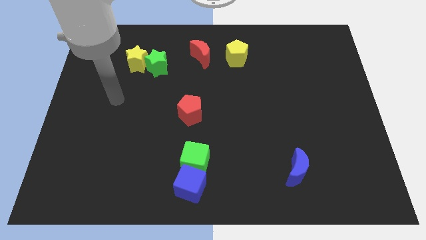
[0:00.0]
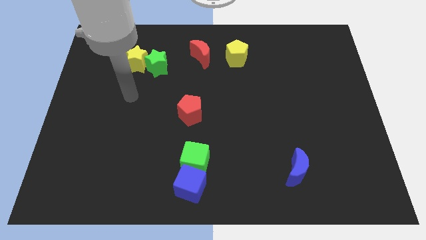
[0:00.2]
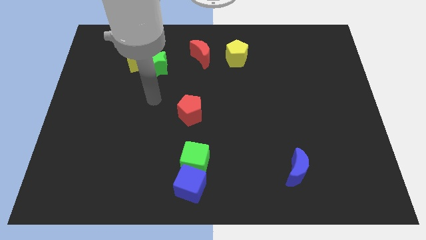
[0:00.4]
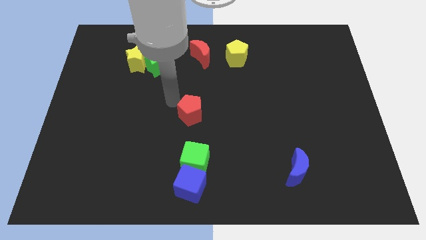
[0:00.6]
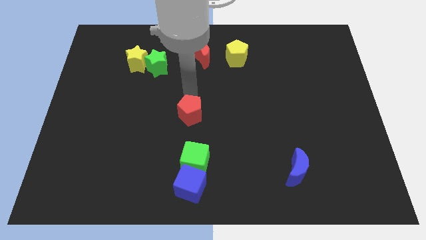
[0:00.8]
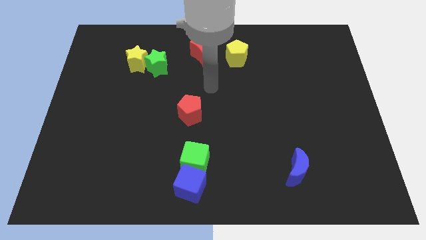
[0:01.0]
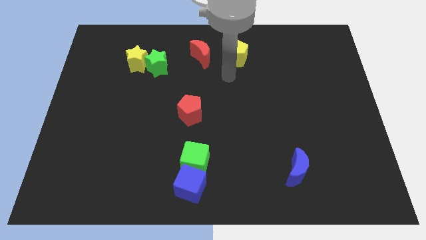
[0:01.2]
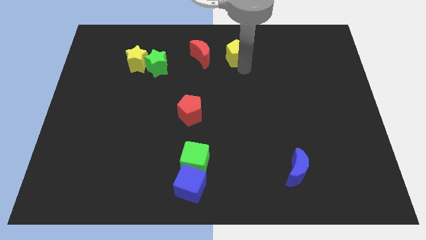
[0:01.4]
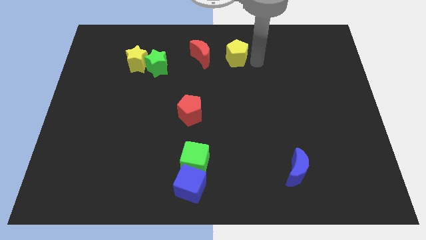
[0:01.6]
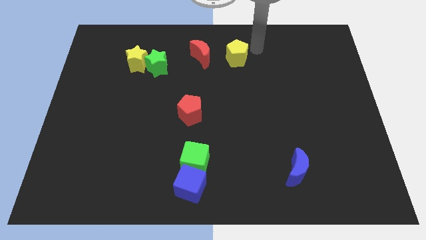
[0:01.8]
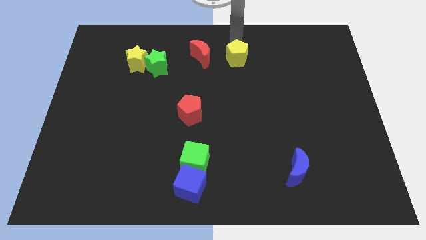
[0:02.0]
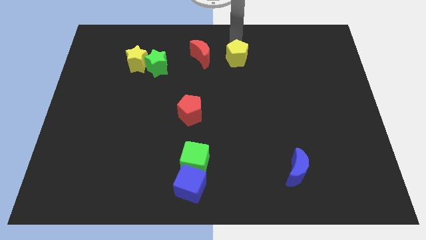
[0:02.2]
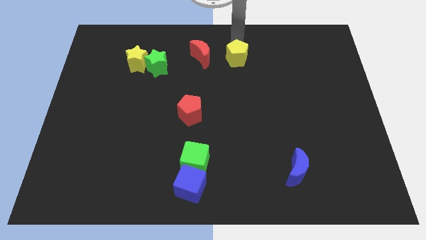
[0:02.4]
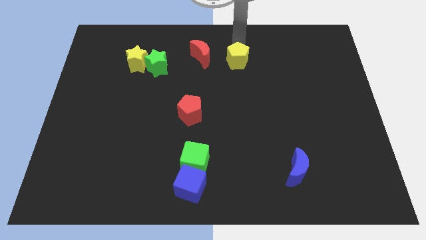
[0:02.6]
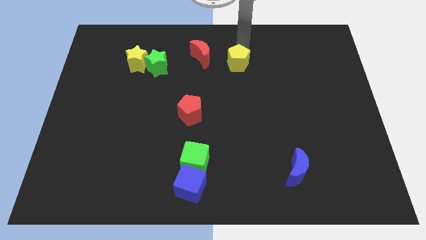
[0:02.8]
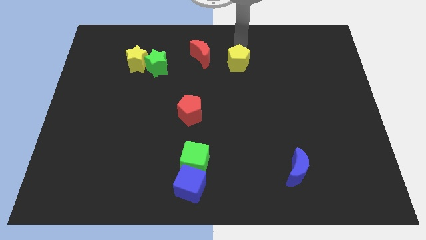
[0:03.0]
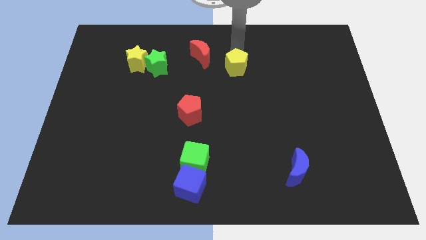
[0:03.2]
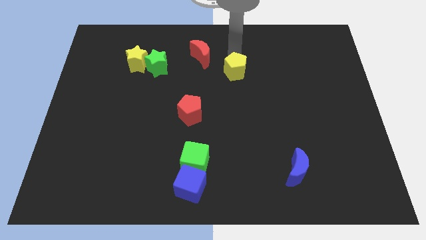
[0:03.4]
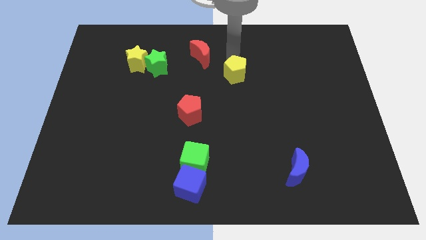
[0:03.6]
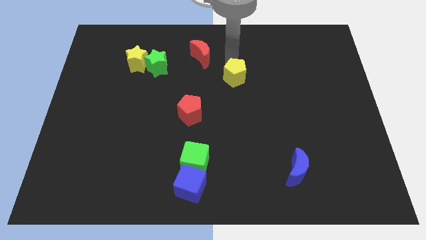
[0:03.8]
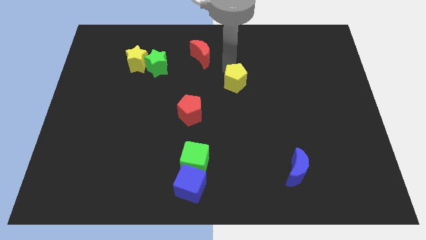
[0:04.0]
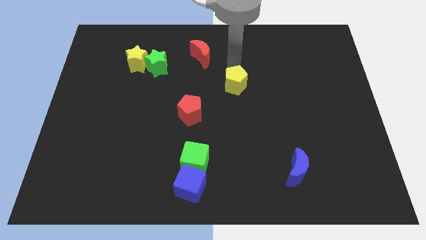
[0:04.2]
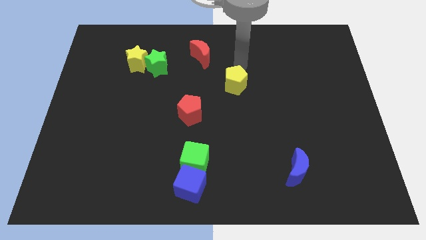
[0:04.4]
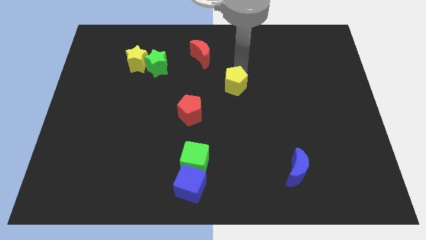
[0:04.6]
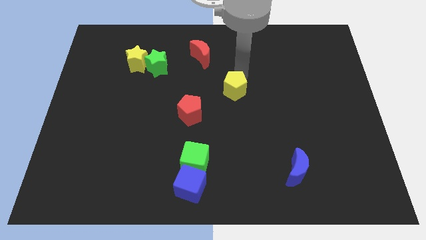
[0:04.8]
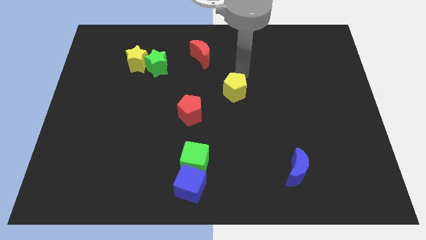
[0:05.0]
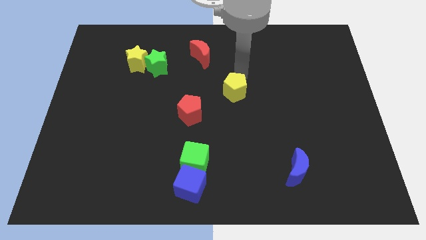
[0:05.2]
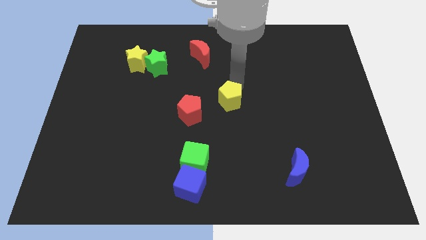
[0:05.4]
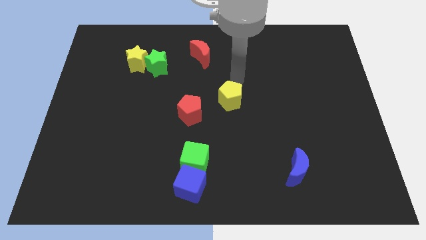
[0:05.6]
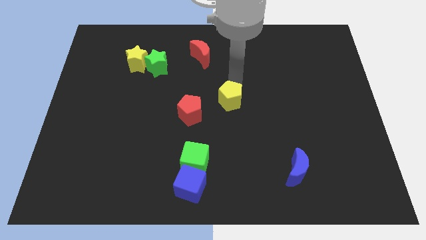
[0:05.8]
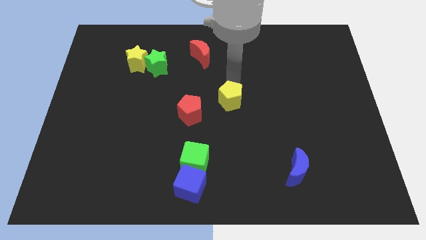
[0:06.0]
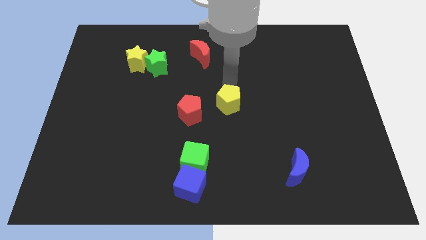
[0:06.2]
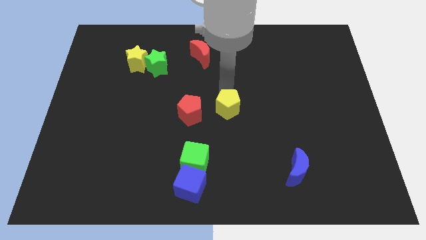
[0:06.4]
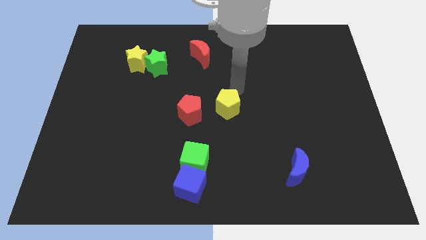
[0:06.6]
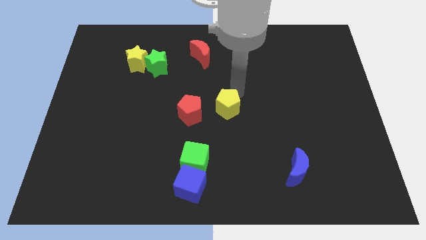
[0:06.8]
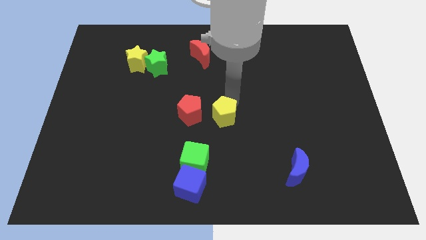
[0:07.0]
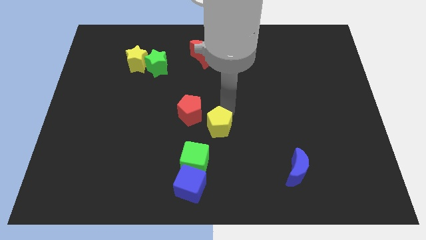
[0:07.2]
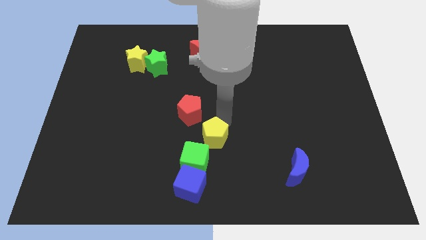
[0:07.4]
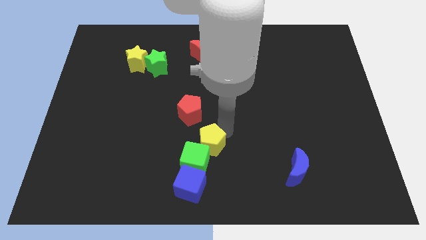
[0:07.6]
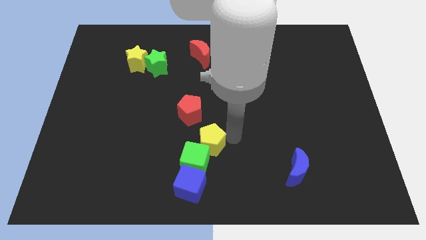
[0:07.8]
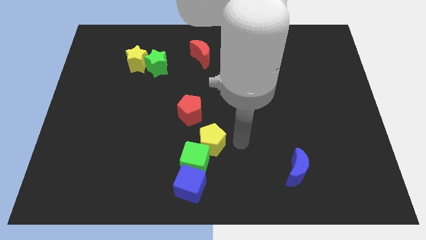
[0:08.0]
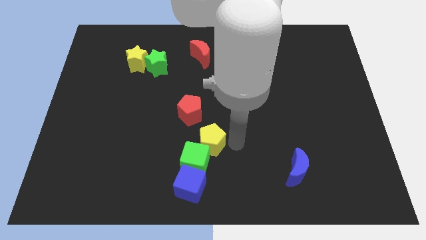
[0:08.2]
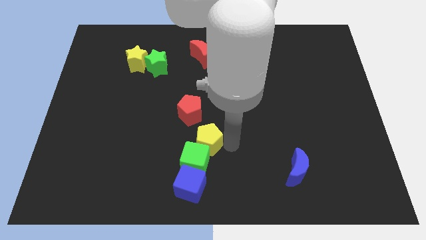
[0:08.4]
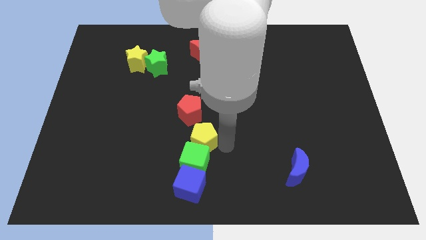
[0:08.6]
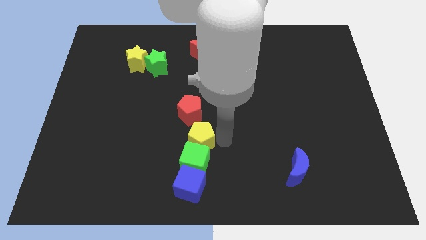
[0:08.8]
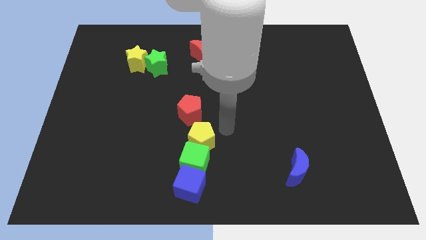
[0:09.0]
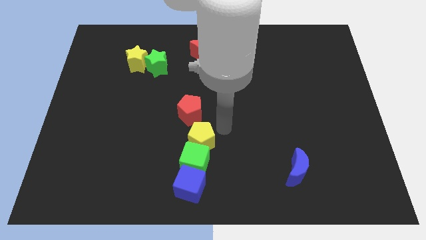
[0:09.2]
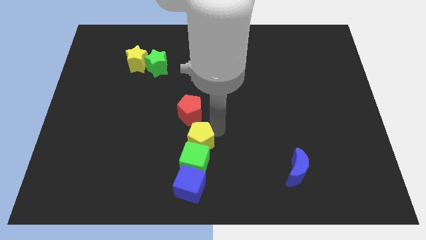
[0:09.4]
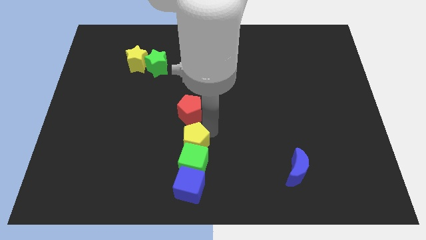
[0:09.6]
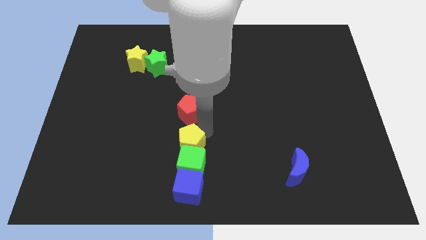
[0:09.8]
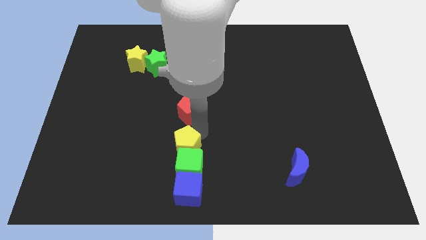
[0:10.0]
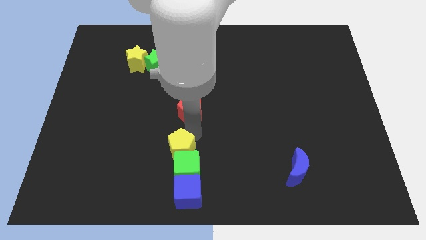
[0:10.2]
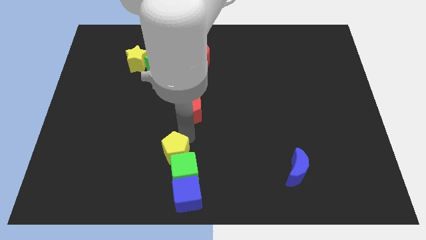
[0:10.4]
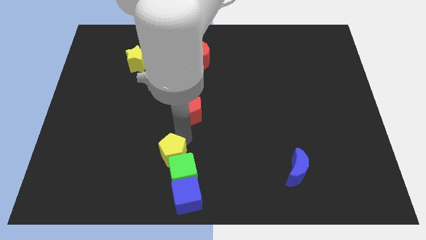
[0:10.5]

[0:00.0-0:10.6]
slide the yellow pentagon diagonally up and to the left of the blue cube

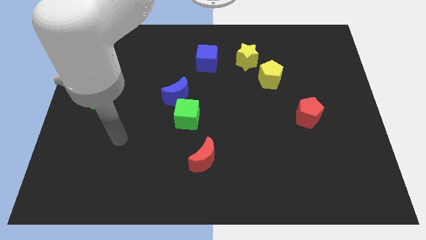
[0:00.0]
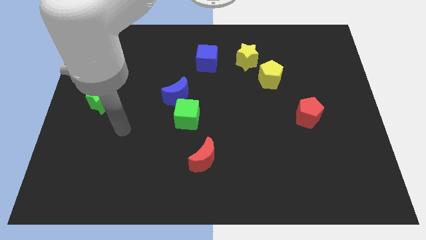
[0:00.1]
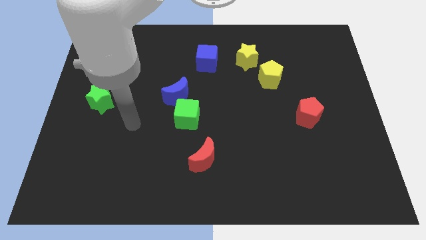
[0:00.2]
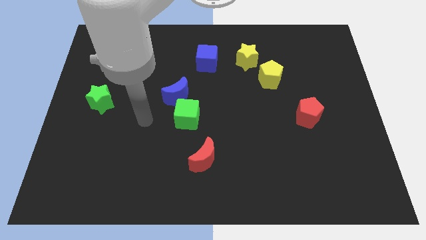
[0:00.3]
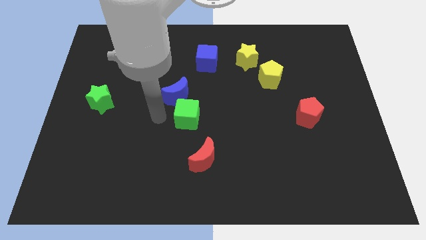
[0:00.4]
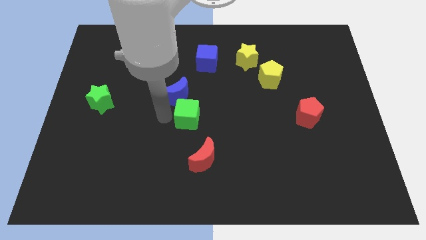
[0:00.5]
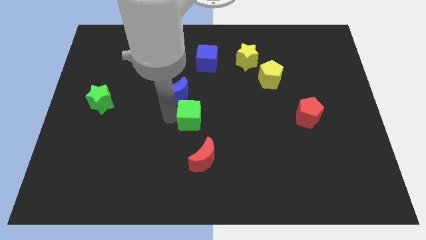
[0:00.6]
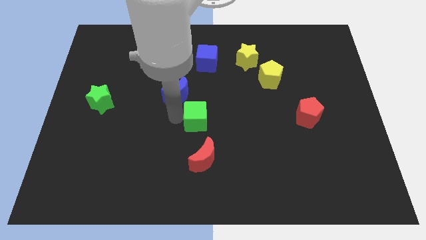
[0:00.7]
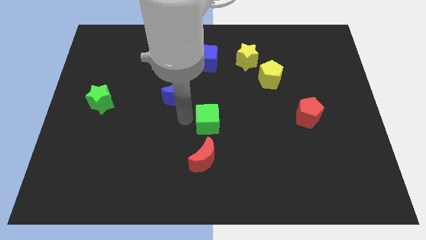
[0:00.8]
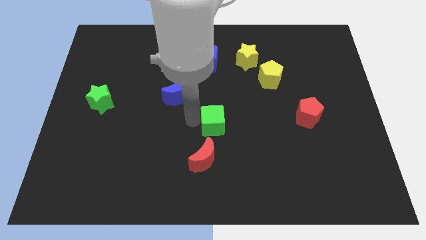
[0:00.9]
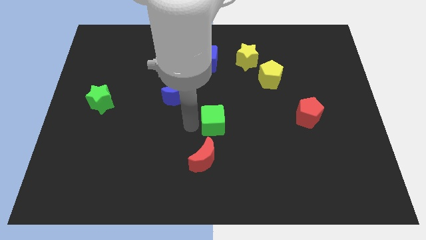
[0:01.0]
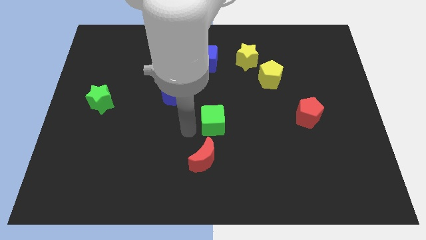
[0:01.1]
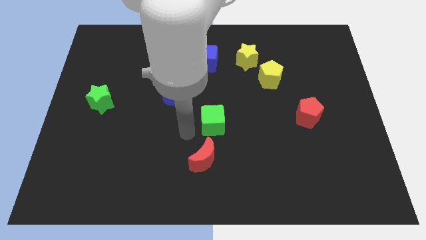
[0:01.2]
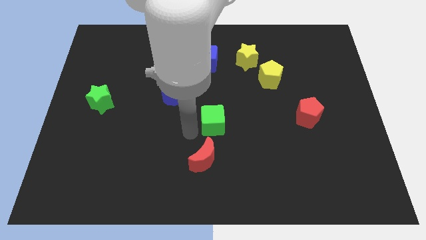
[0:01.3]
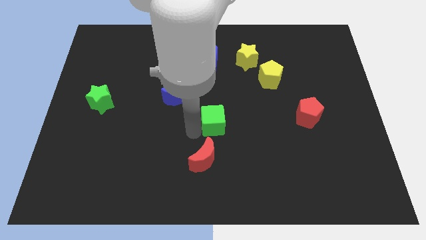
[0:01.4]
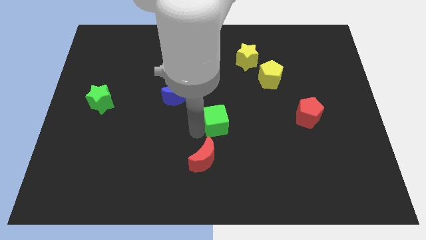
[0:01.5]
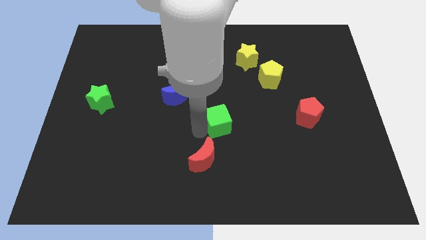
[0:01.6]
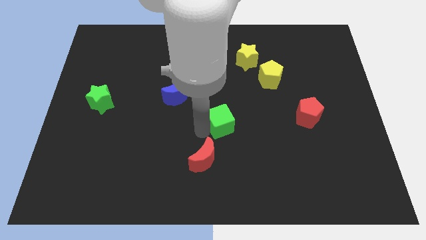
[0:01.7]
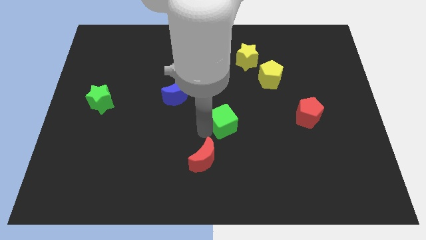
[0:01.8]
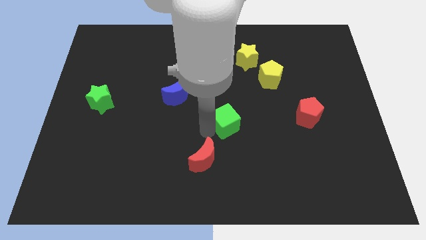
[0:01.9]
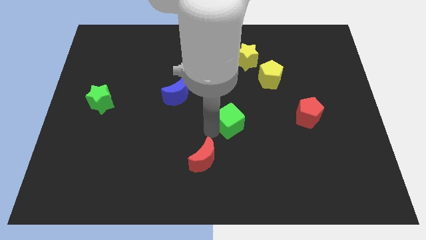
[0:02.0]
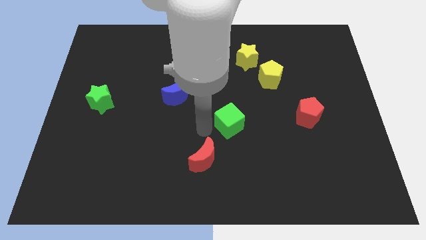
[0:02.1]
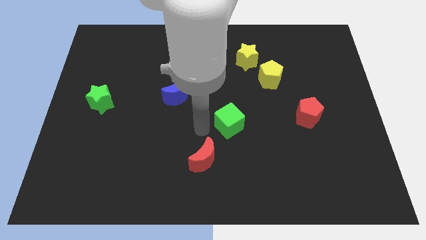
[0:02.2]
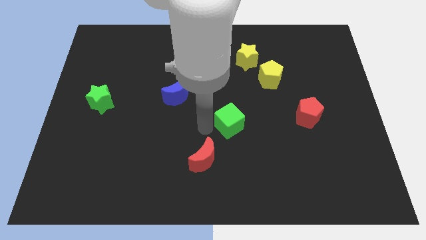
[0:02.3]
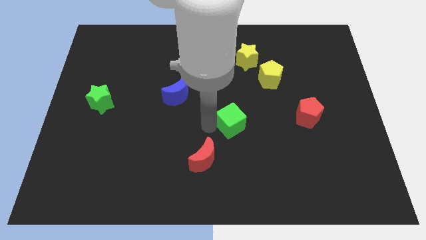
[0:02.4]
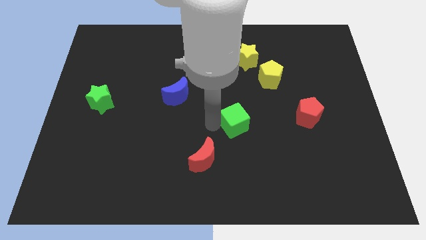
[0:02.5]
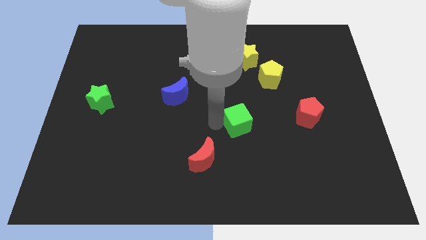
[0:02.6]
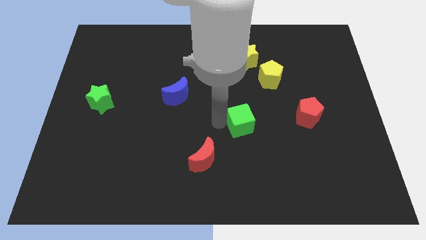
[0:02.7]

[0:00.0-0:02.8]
move the green cube to the left of the red pentagon
